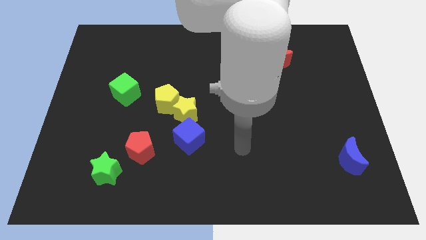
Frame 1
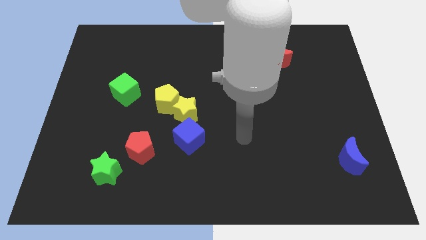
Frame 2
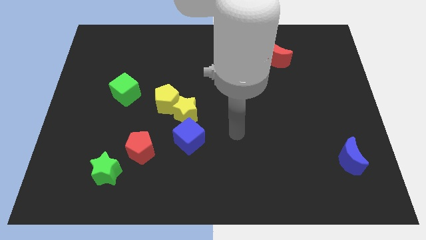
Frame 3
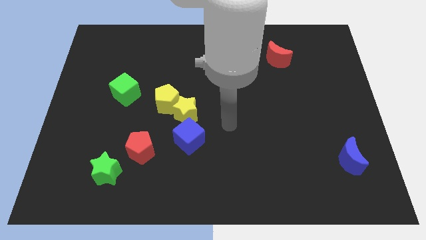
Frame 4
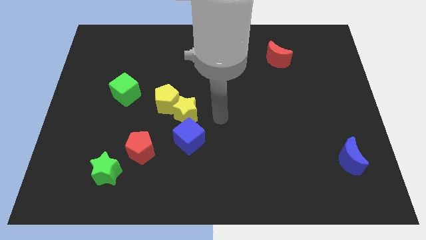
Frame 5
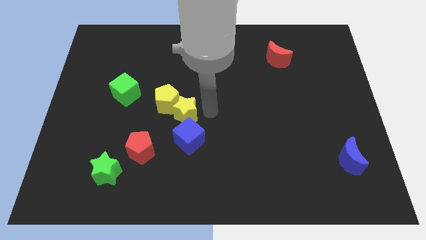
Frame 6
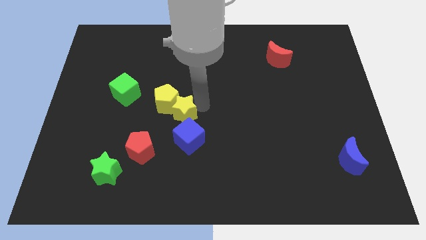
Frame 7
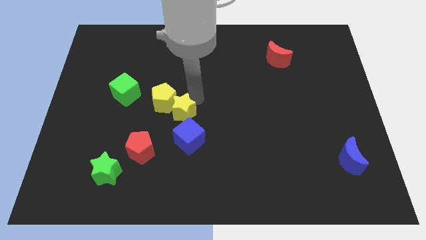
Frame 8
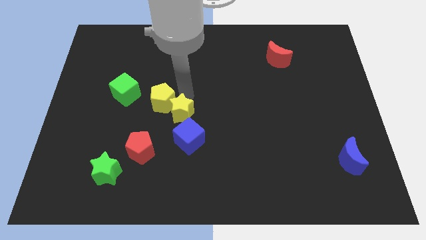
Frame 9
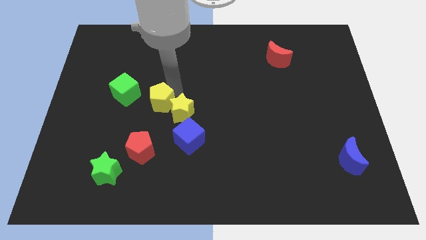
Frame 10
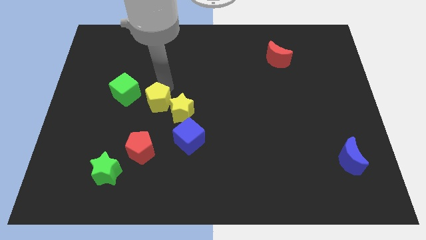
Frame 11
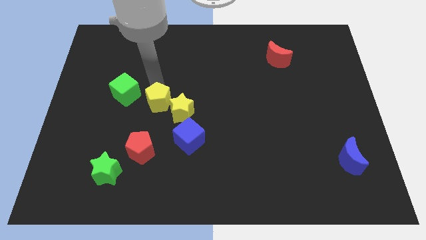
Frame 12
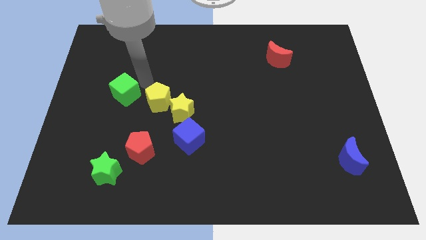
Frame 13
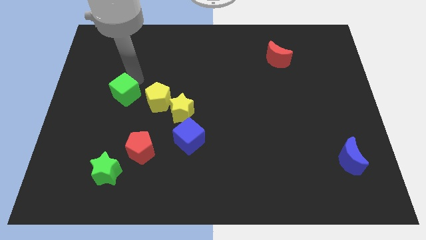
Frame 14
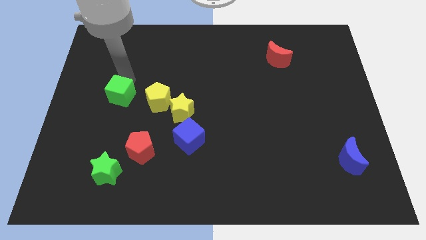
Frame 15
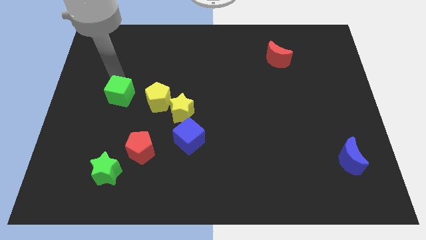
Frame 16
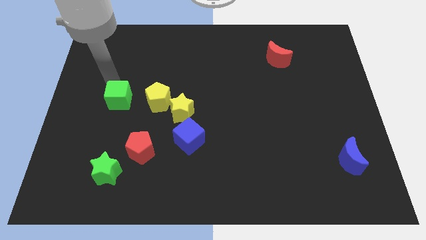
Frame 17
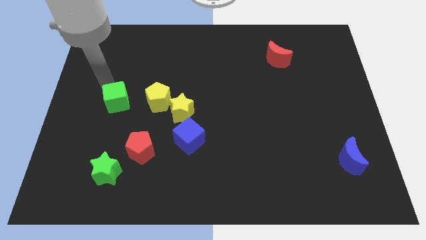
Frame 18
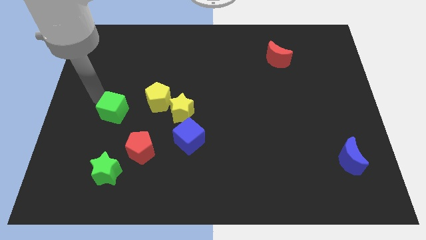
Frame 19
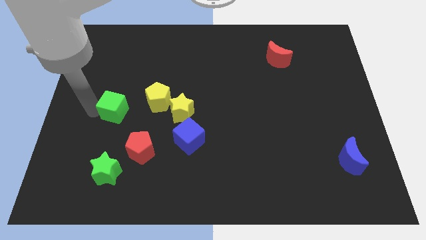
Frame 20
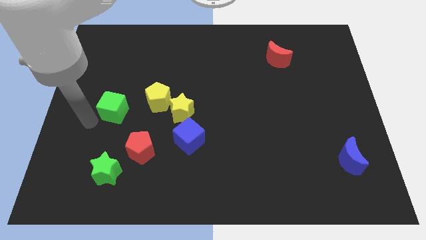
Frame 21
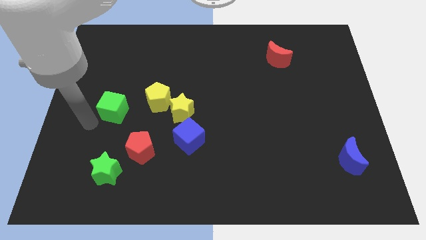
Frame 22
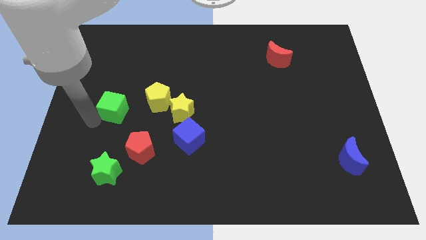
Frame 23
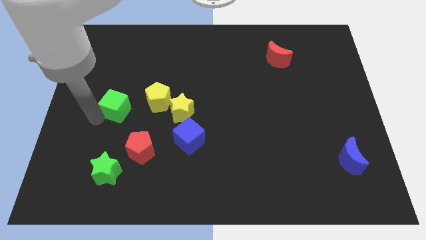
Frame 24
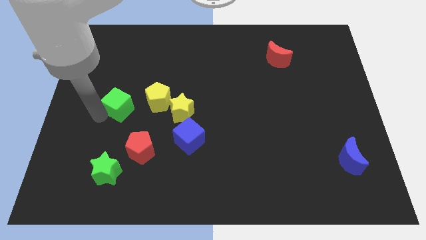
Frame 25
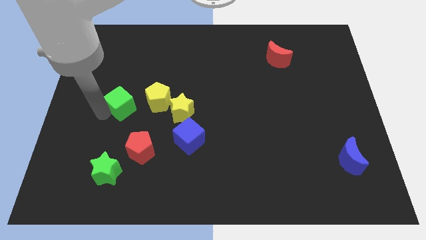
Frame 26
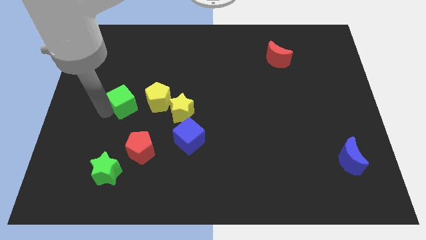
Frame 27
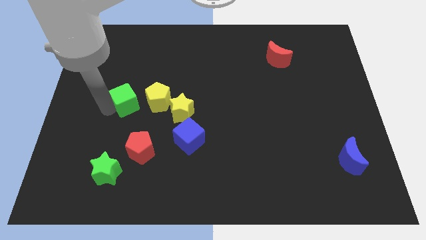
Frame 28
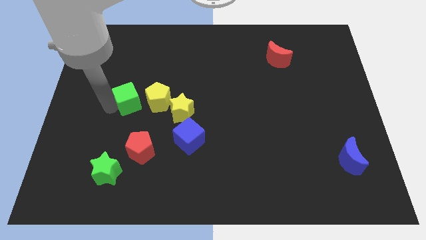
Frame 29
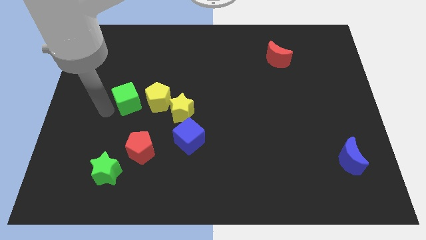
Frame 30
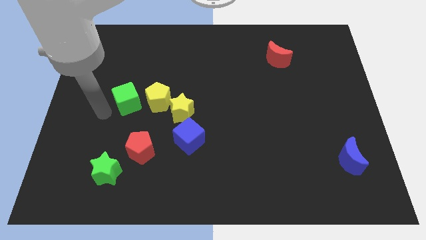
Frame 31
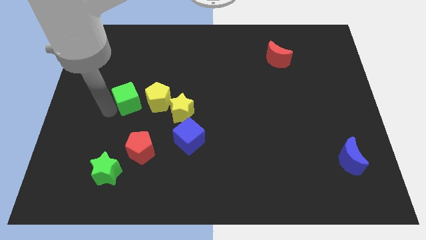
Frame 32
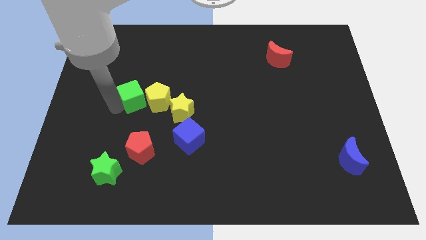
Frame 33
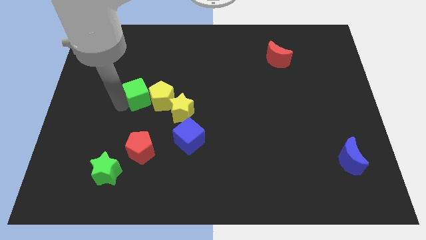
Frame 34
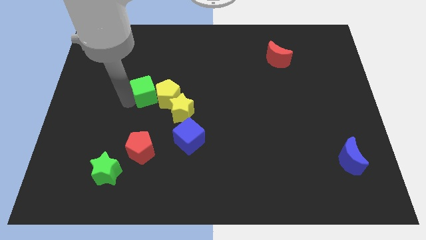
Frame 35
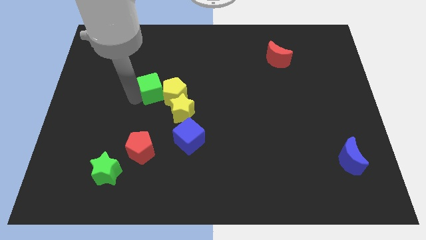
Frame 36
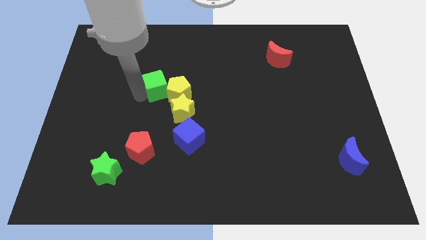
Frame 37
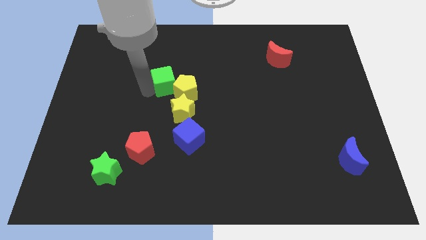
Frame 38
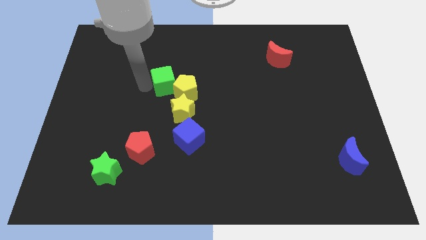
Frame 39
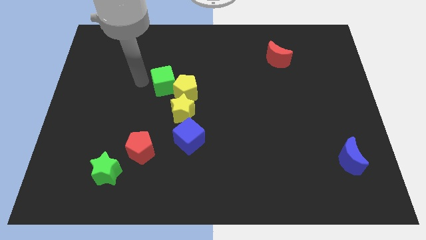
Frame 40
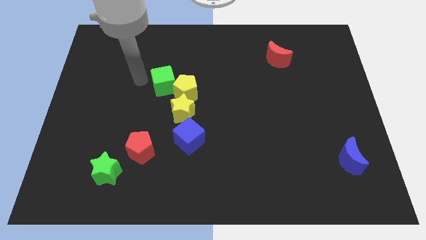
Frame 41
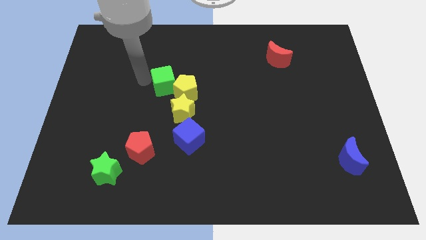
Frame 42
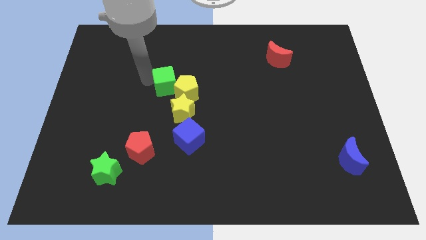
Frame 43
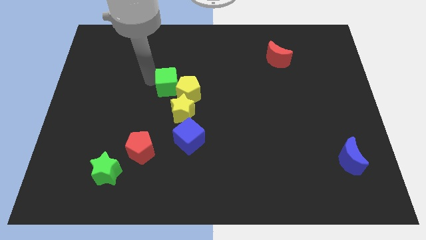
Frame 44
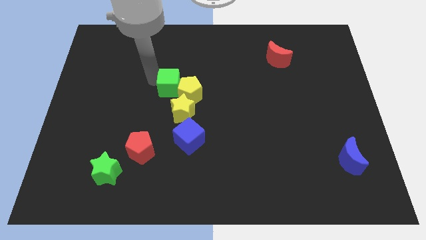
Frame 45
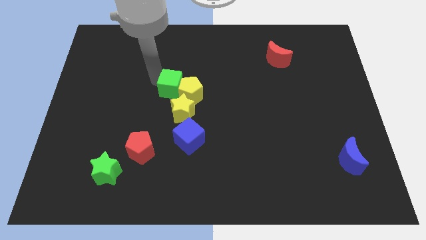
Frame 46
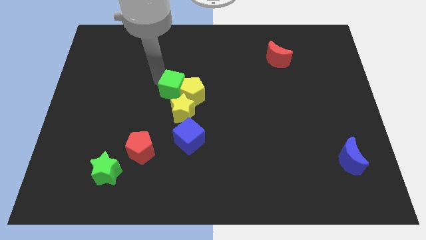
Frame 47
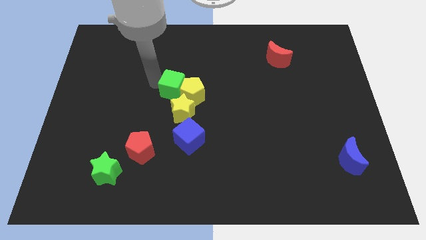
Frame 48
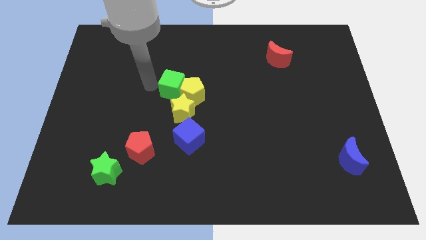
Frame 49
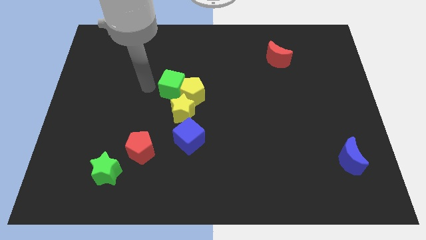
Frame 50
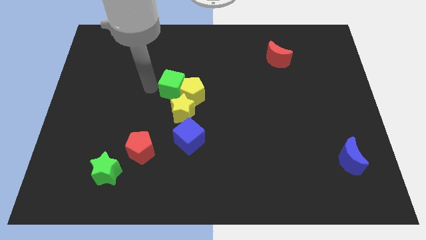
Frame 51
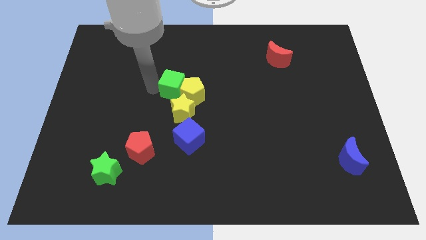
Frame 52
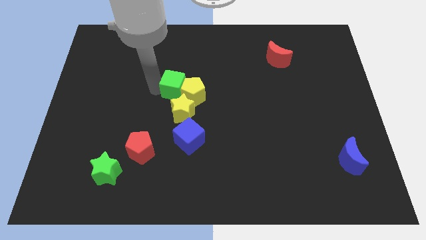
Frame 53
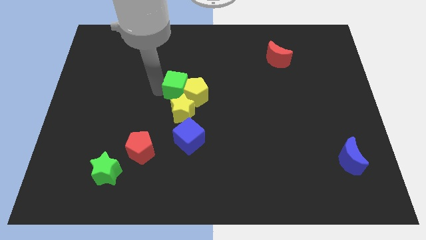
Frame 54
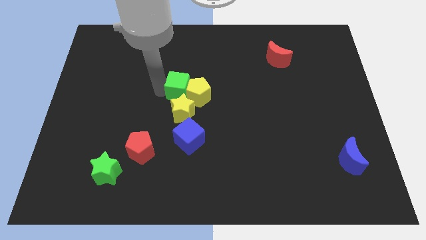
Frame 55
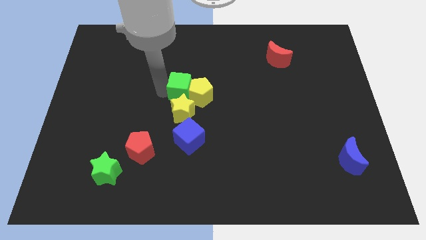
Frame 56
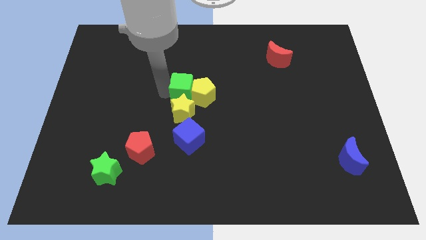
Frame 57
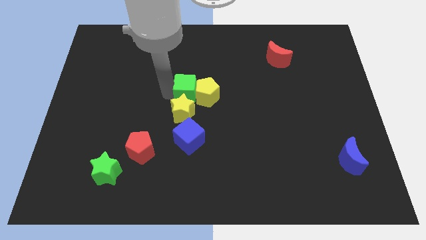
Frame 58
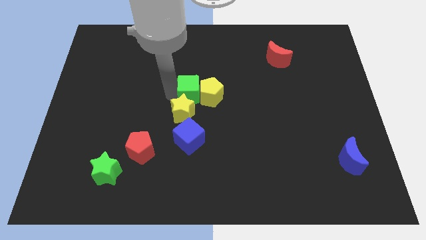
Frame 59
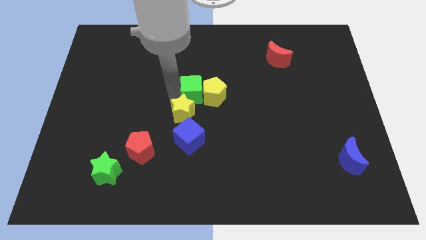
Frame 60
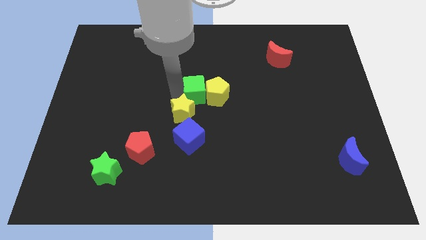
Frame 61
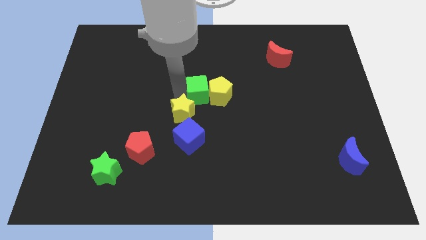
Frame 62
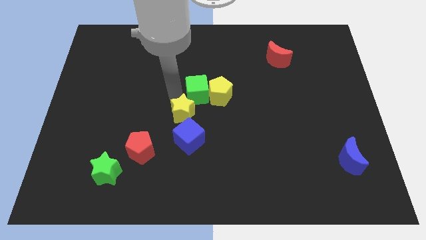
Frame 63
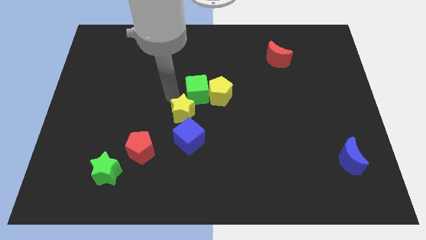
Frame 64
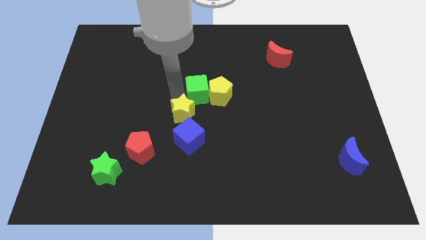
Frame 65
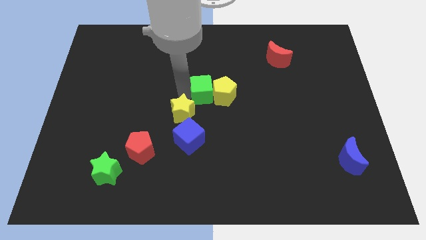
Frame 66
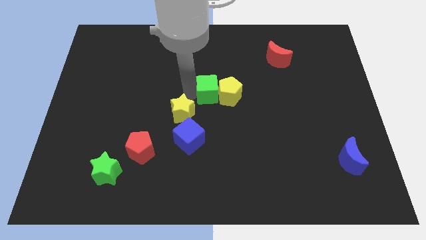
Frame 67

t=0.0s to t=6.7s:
move the green cube to the right

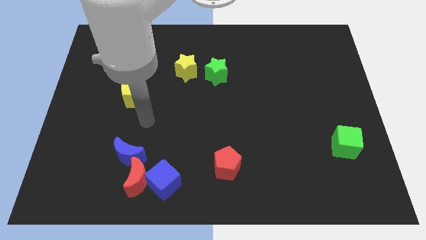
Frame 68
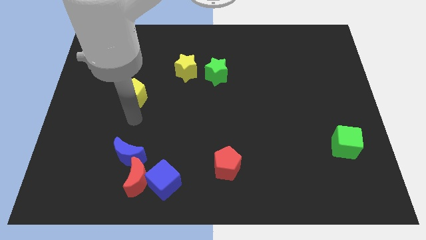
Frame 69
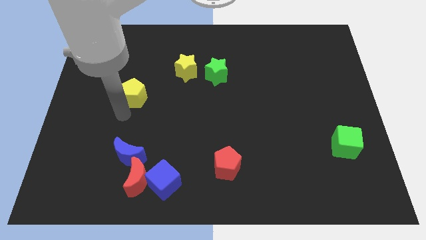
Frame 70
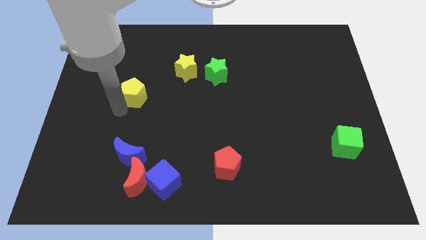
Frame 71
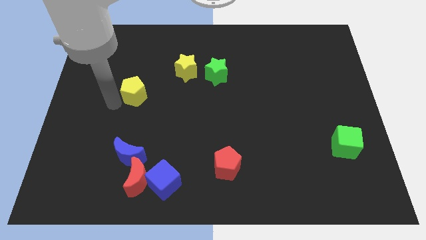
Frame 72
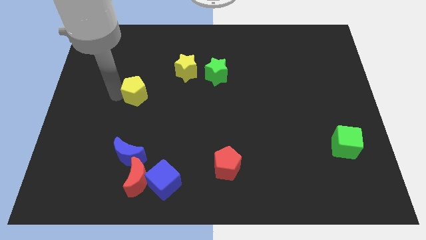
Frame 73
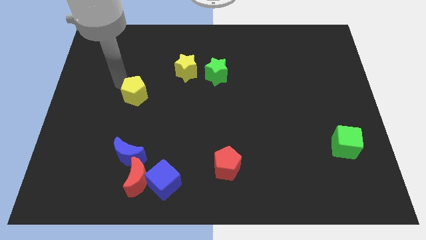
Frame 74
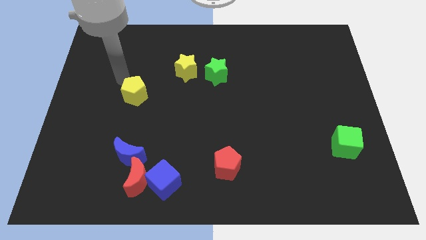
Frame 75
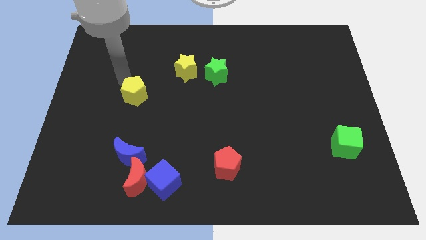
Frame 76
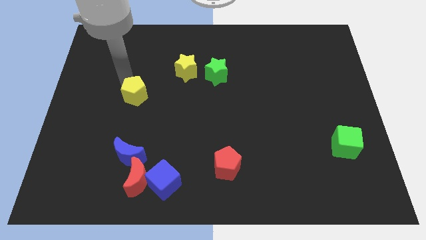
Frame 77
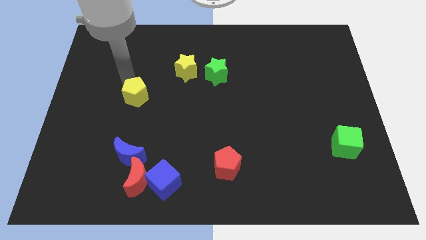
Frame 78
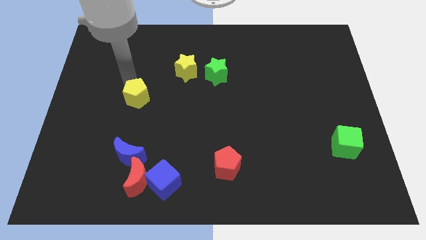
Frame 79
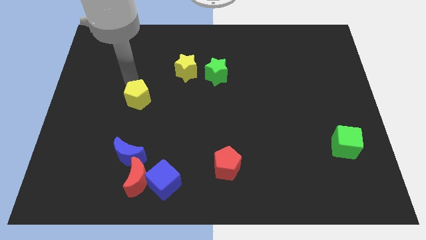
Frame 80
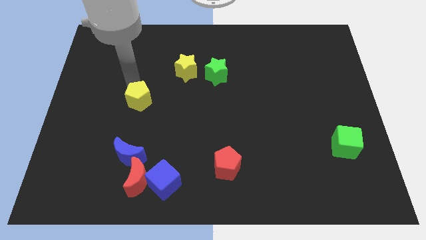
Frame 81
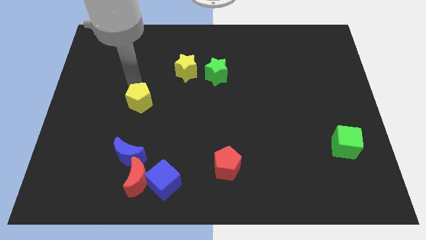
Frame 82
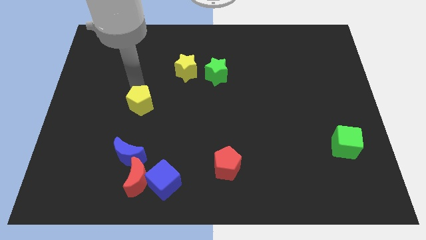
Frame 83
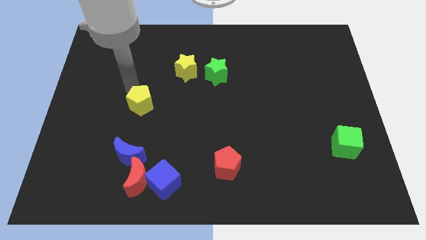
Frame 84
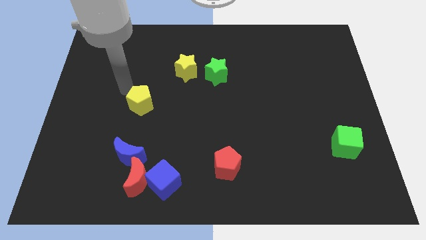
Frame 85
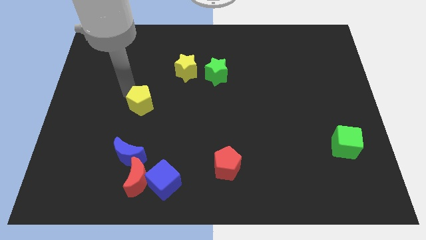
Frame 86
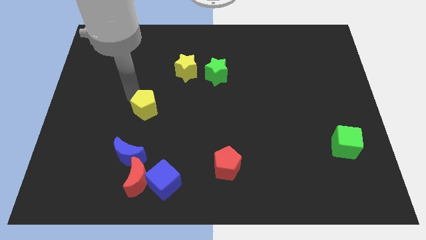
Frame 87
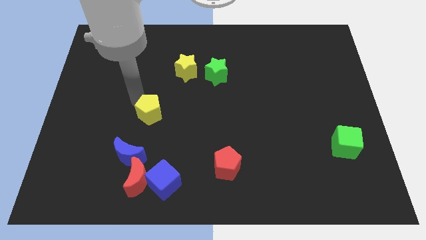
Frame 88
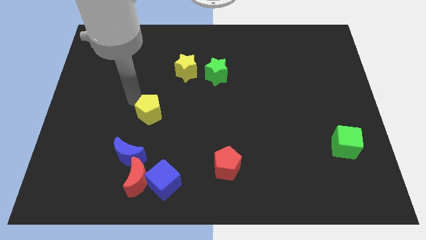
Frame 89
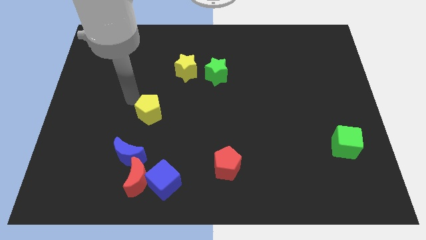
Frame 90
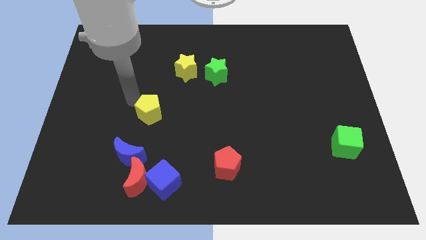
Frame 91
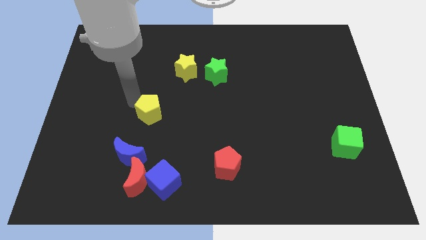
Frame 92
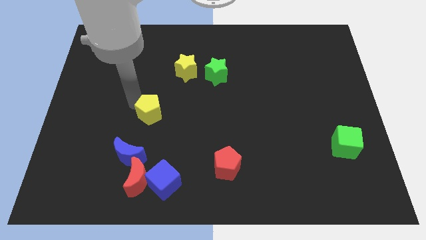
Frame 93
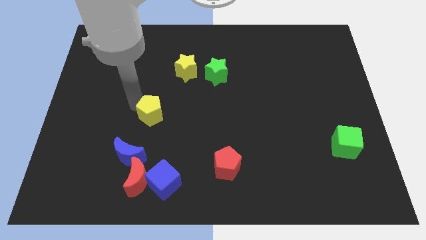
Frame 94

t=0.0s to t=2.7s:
slightly slide the yellow pentagon diagonally downwards and right
